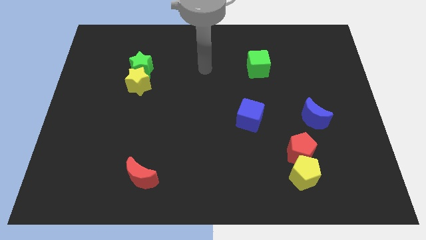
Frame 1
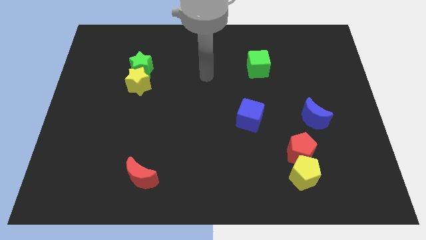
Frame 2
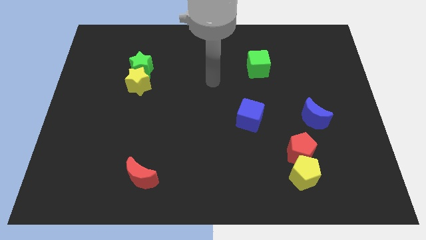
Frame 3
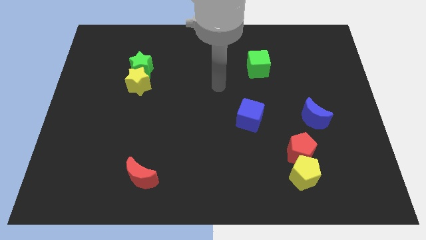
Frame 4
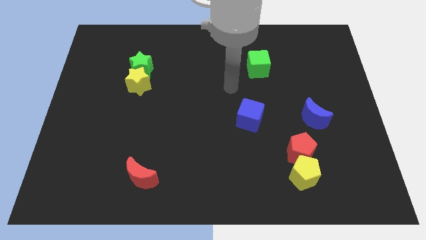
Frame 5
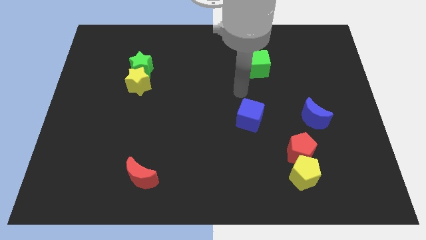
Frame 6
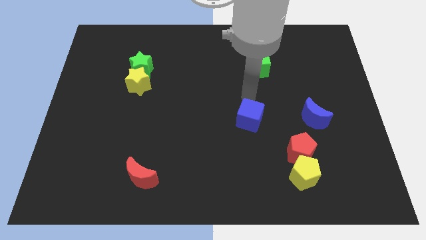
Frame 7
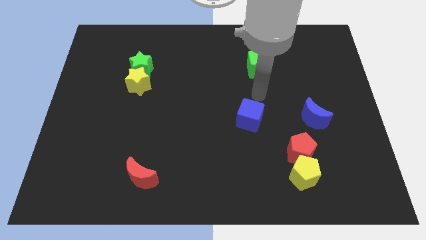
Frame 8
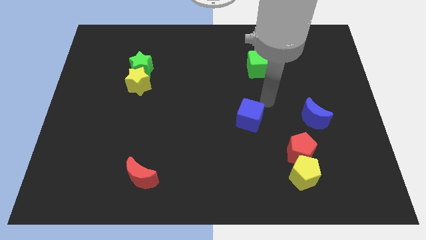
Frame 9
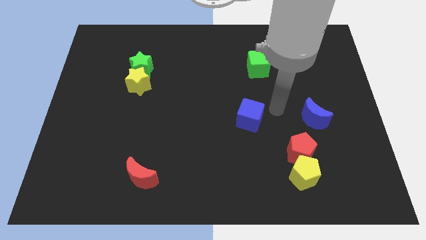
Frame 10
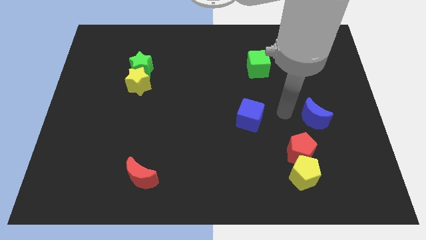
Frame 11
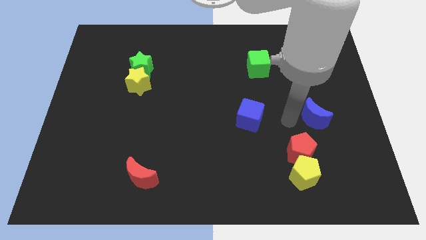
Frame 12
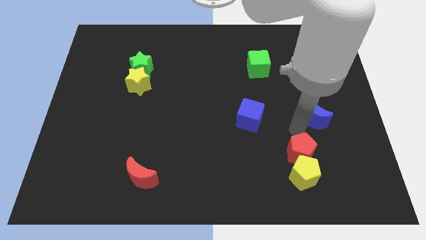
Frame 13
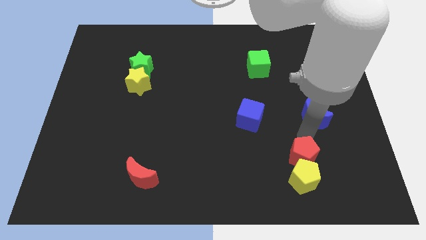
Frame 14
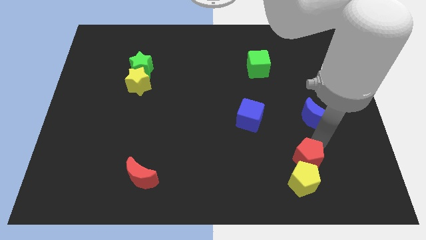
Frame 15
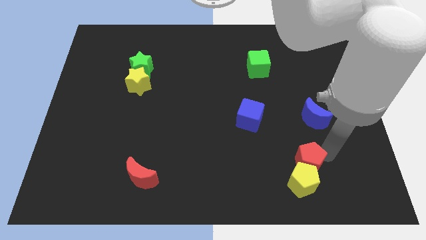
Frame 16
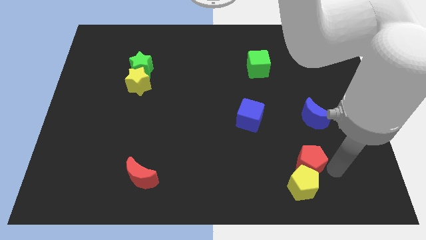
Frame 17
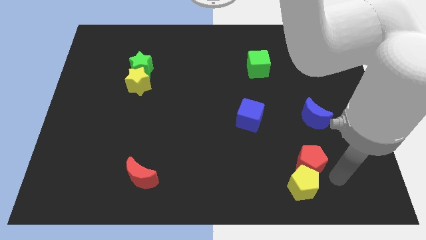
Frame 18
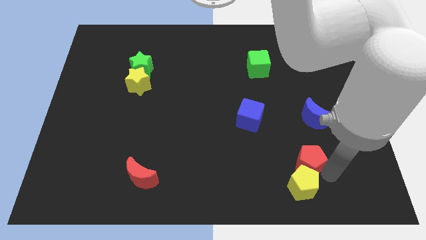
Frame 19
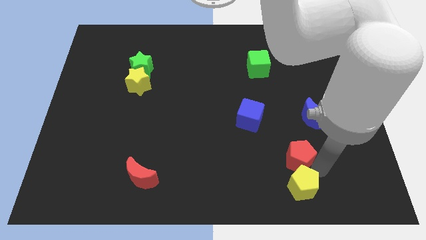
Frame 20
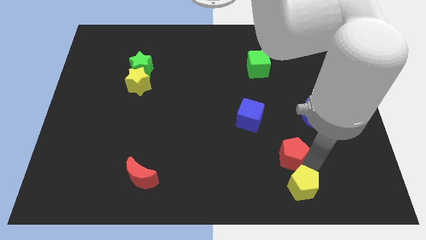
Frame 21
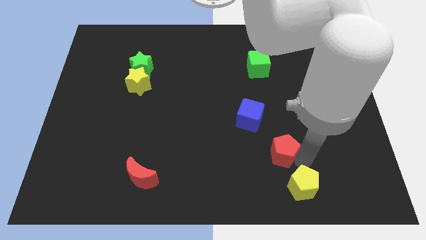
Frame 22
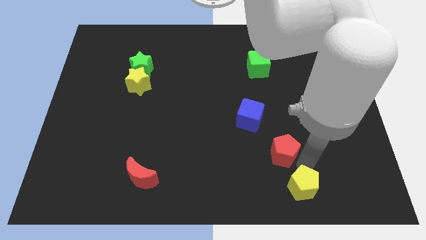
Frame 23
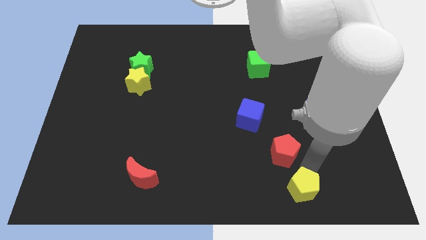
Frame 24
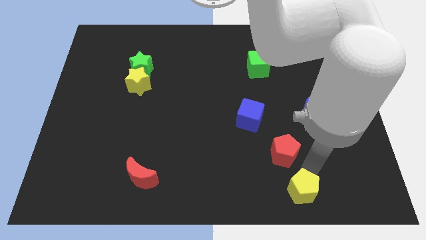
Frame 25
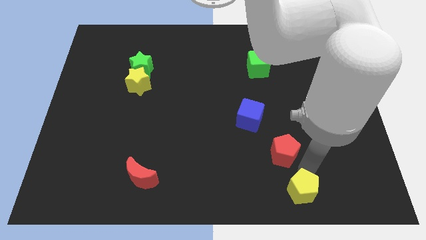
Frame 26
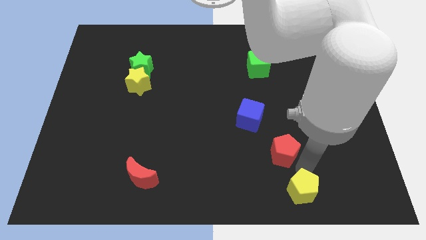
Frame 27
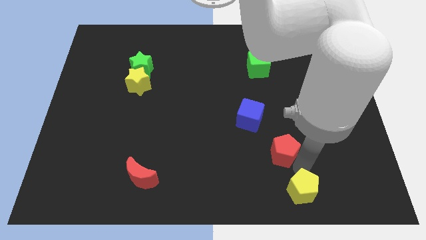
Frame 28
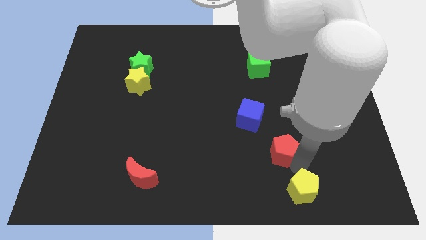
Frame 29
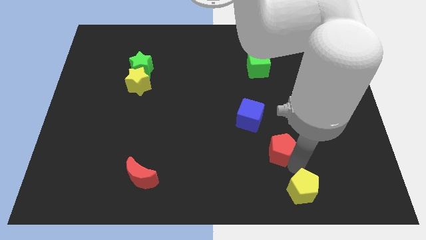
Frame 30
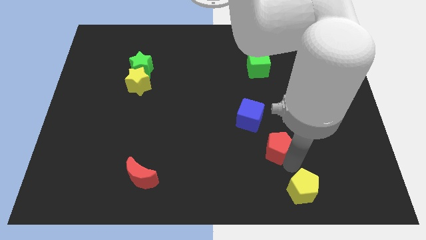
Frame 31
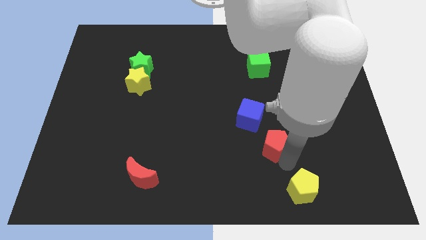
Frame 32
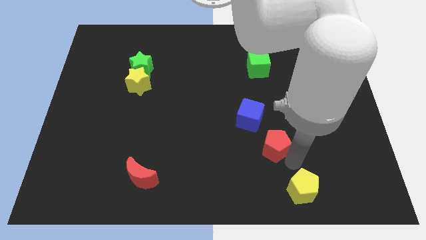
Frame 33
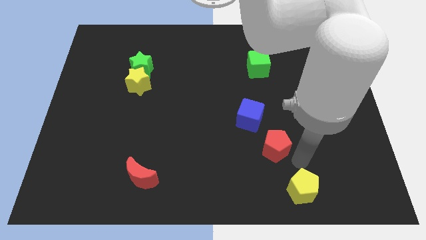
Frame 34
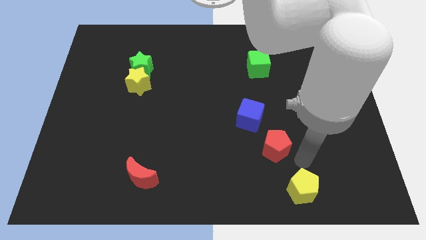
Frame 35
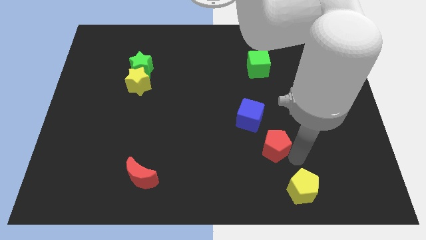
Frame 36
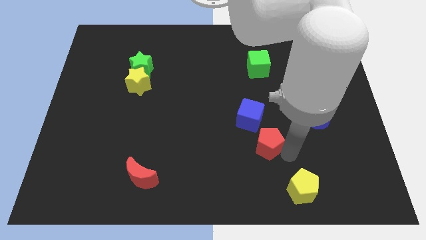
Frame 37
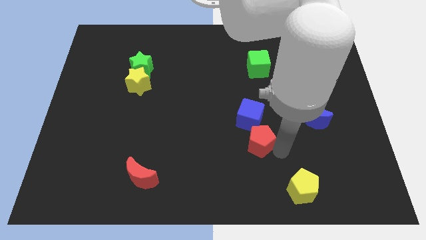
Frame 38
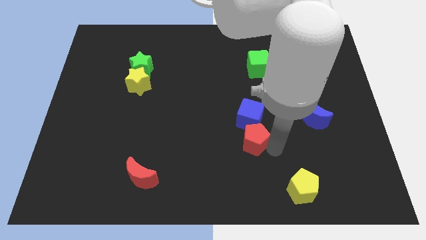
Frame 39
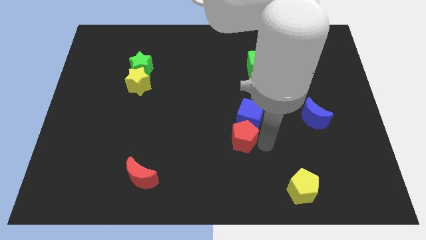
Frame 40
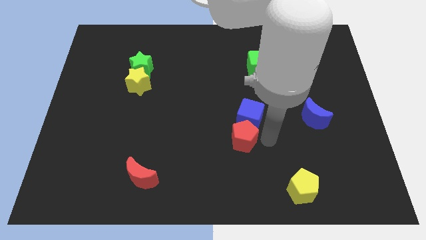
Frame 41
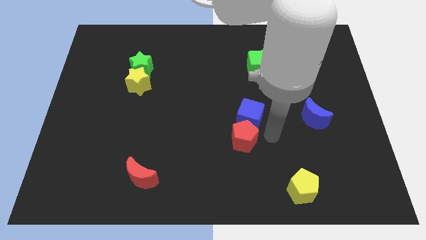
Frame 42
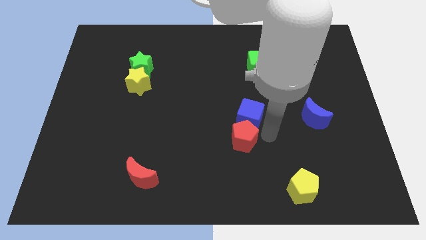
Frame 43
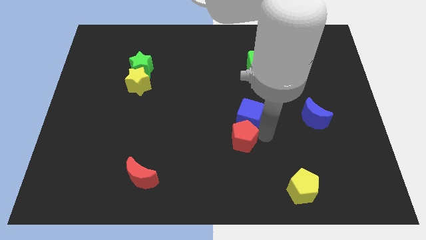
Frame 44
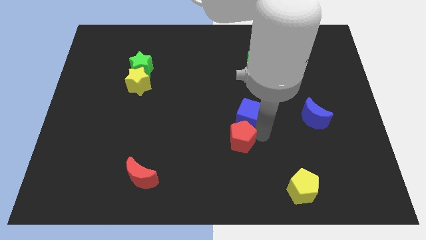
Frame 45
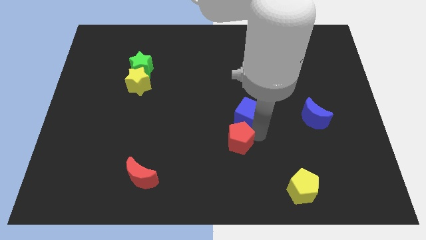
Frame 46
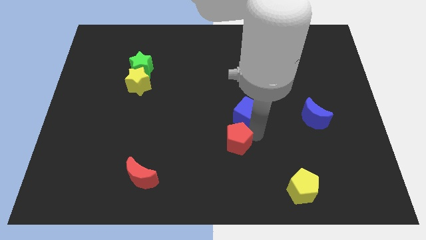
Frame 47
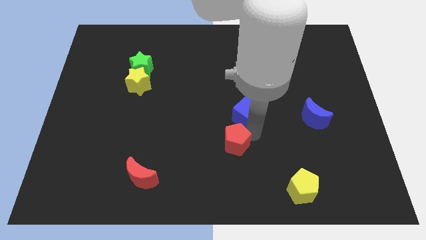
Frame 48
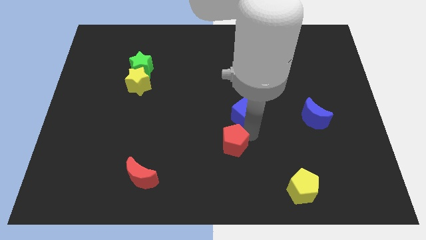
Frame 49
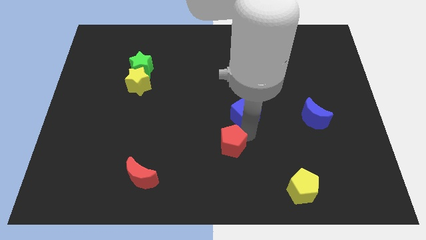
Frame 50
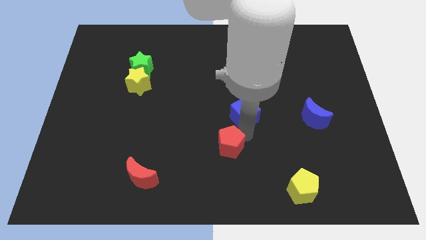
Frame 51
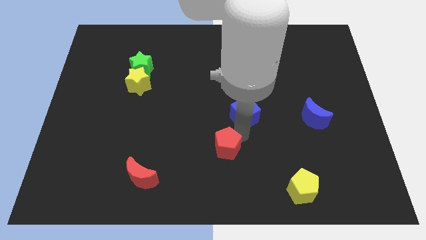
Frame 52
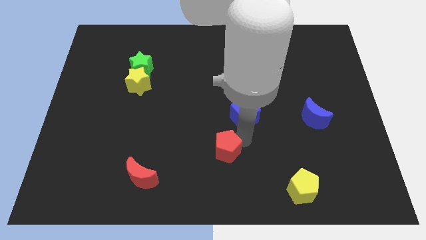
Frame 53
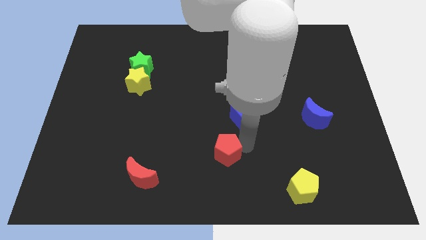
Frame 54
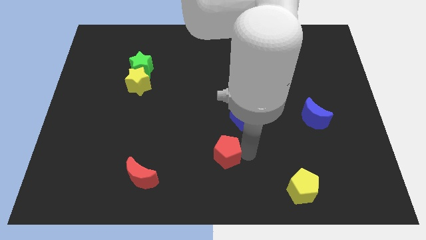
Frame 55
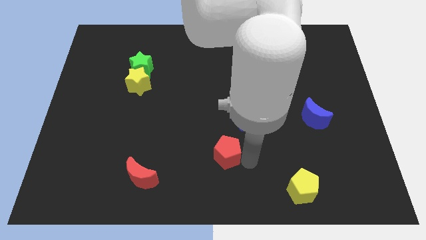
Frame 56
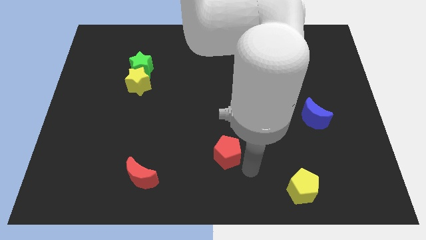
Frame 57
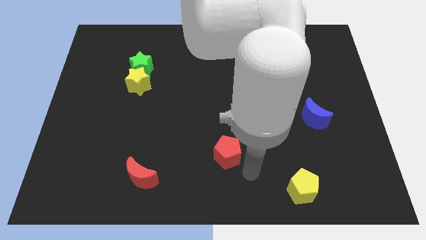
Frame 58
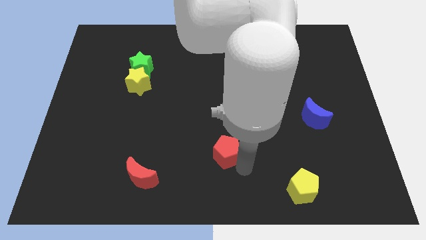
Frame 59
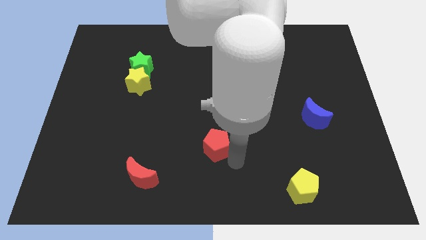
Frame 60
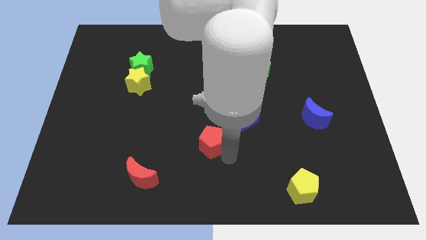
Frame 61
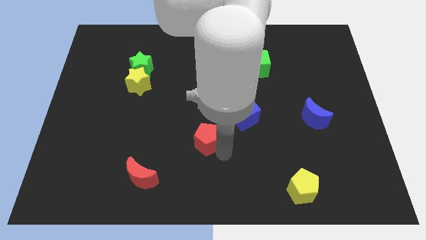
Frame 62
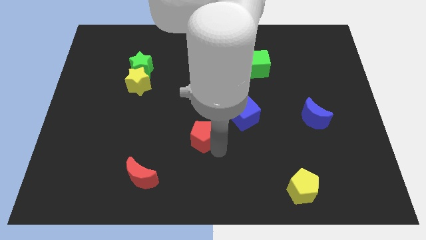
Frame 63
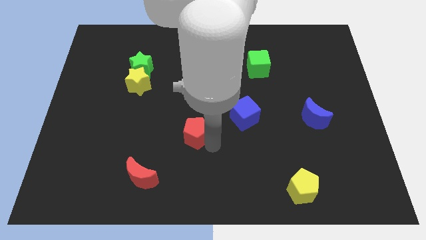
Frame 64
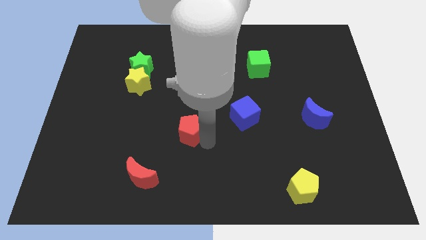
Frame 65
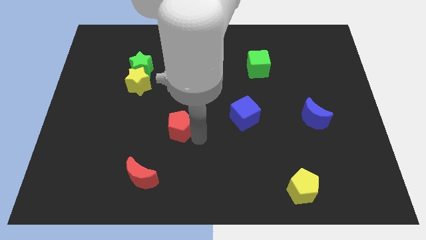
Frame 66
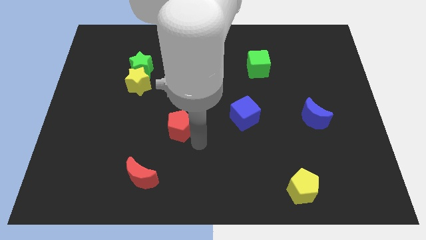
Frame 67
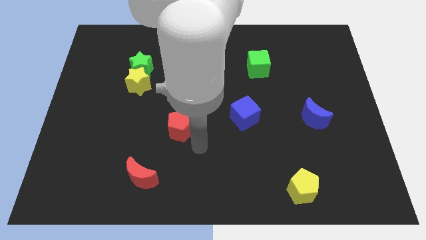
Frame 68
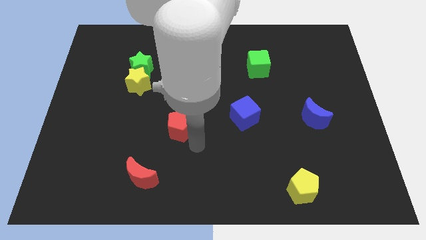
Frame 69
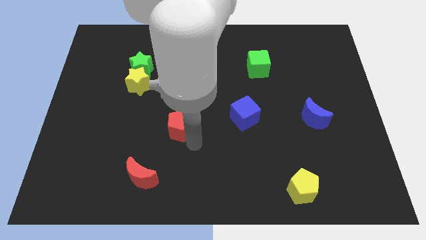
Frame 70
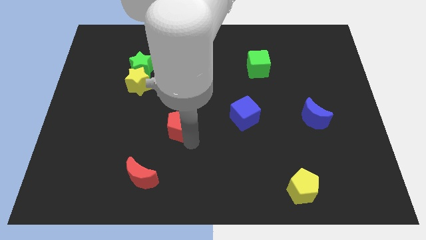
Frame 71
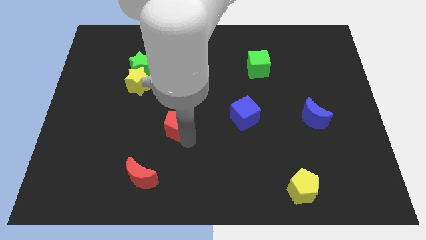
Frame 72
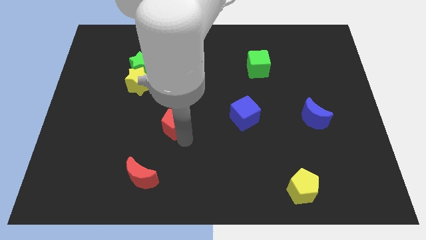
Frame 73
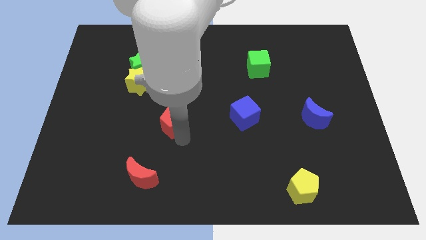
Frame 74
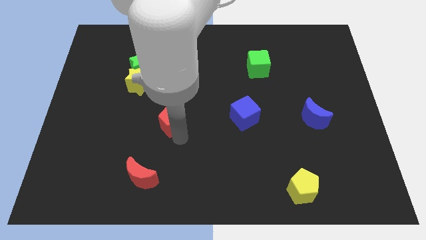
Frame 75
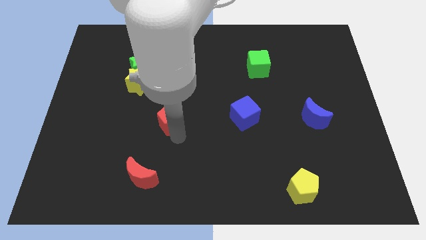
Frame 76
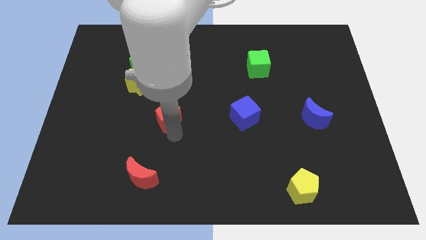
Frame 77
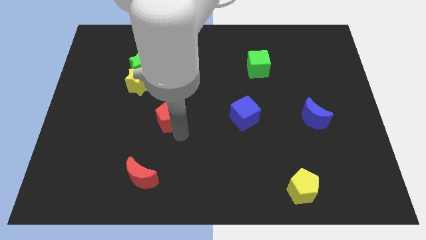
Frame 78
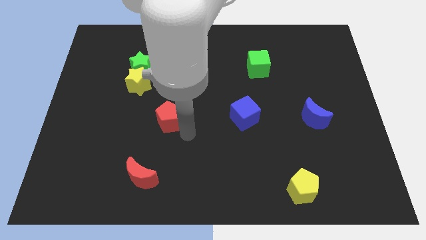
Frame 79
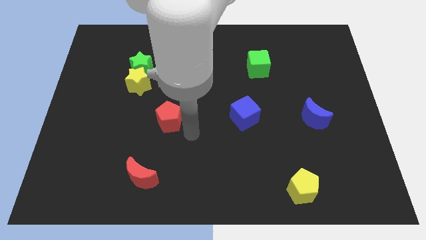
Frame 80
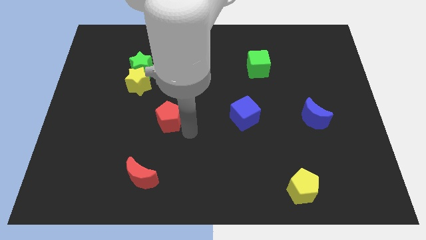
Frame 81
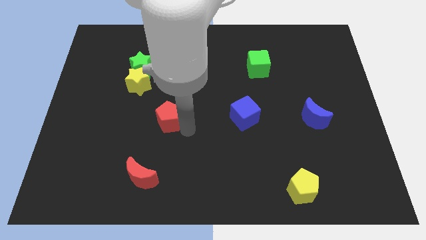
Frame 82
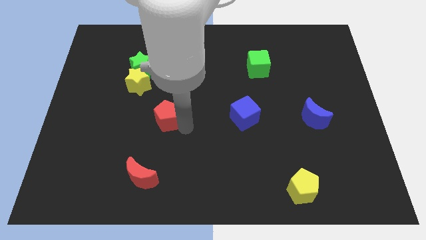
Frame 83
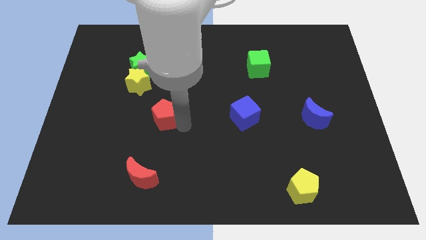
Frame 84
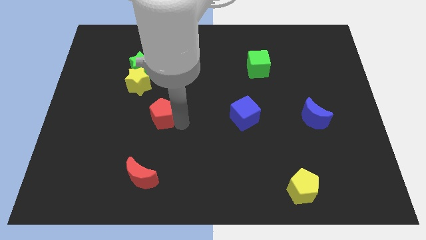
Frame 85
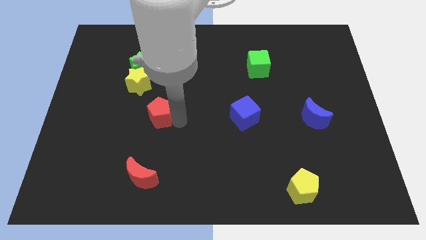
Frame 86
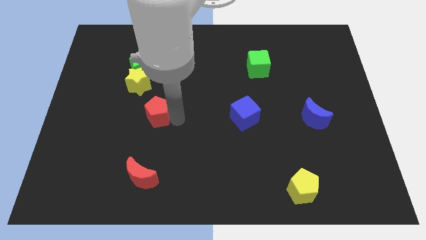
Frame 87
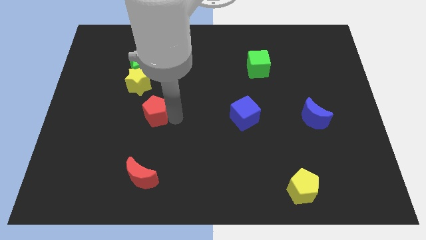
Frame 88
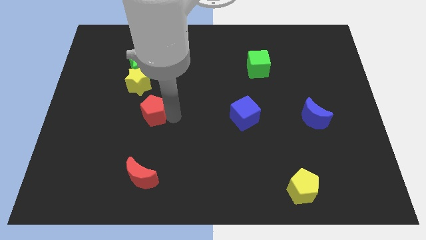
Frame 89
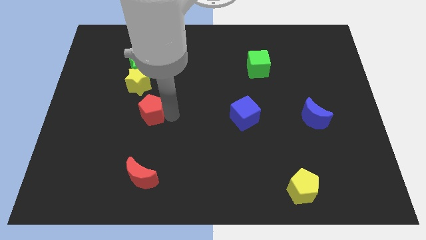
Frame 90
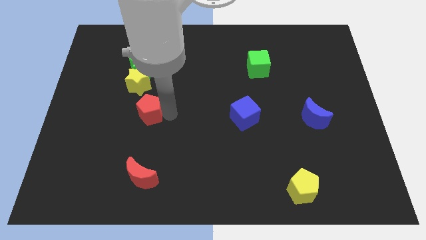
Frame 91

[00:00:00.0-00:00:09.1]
move the red pentagon to the bottom of the green star
